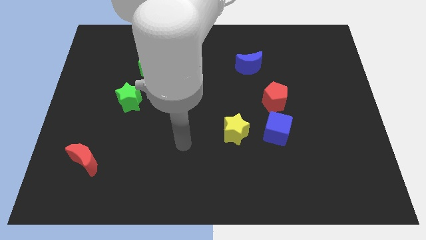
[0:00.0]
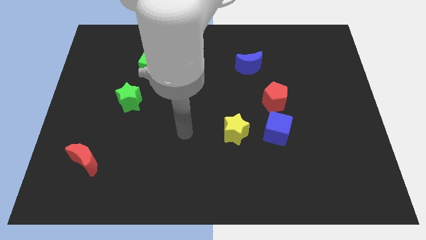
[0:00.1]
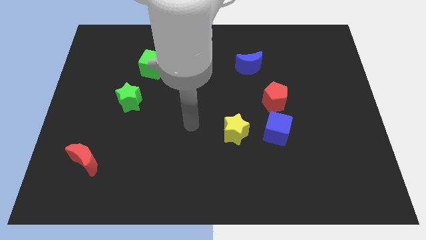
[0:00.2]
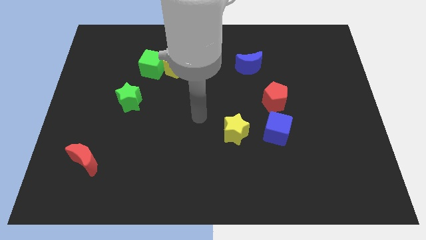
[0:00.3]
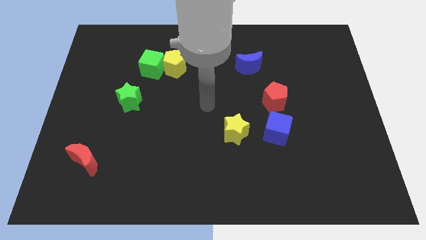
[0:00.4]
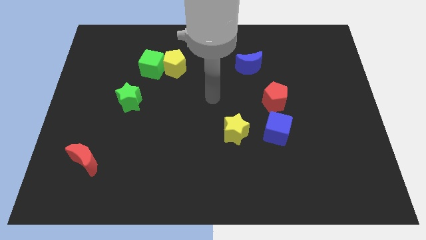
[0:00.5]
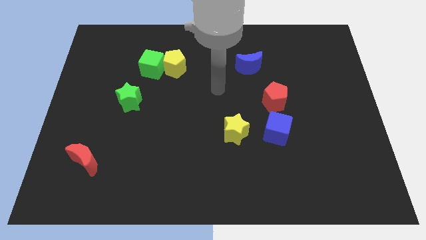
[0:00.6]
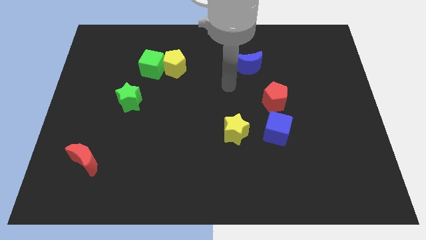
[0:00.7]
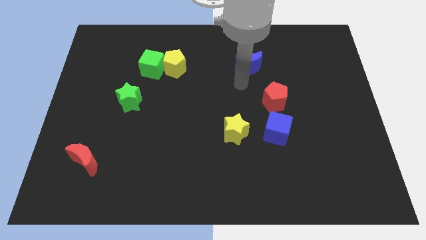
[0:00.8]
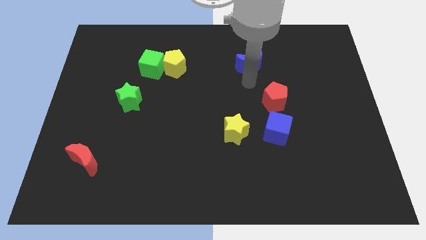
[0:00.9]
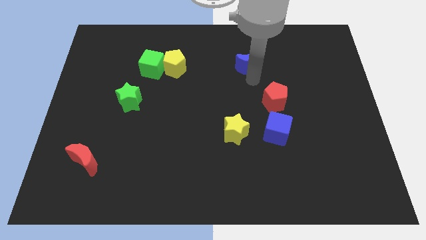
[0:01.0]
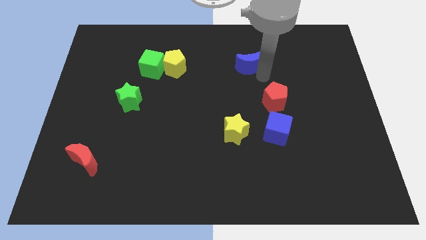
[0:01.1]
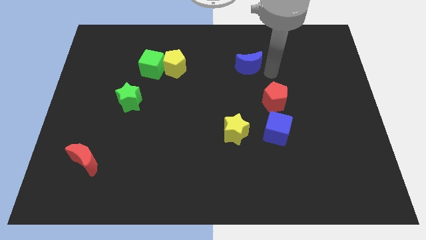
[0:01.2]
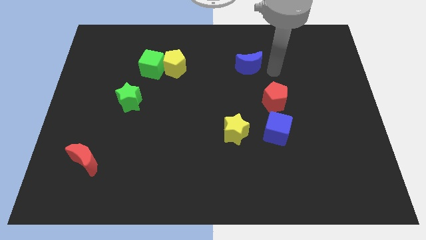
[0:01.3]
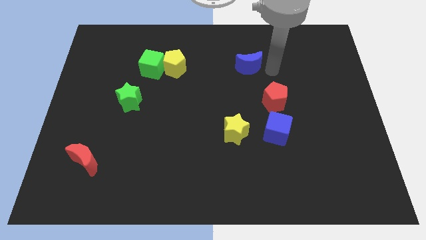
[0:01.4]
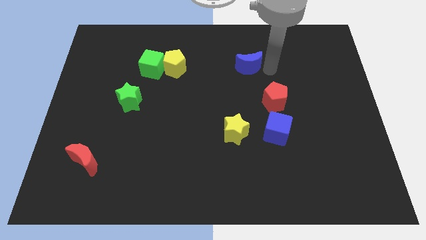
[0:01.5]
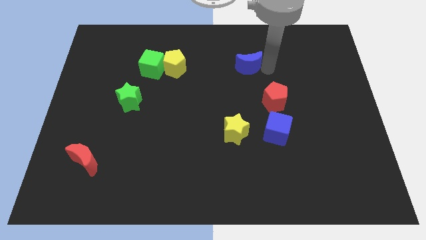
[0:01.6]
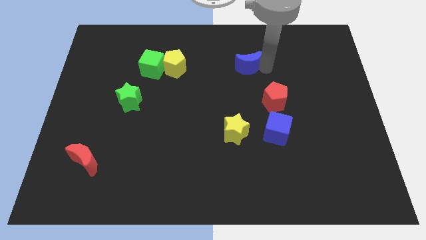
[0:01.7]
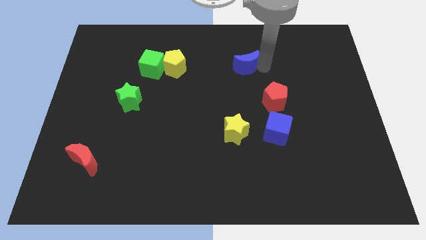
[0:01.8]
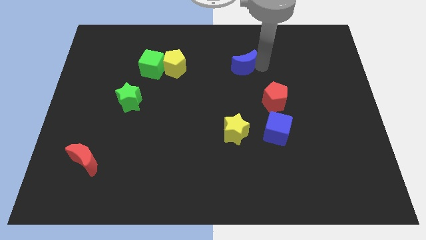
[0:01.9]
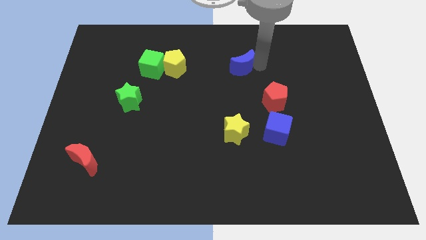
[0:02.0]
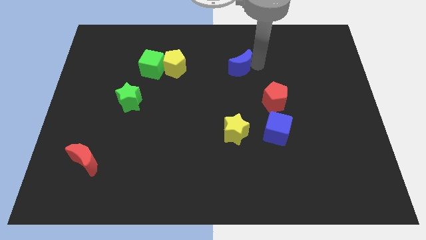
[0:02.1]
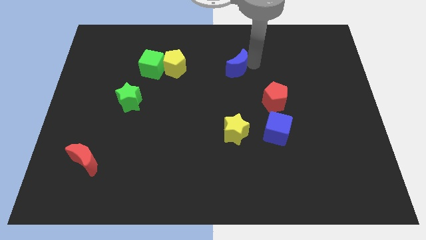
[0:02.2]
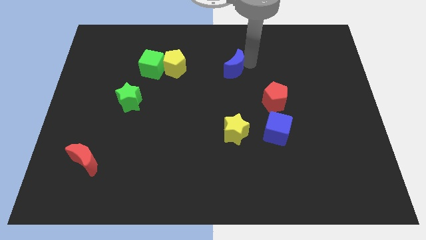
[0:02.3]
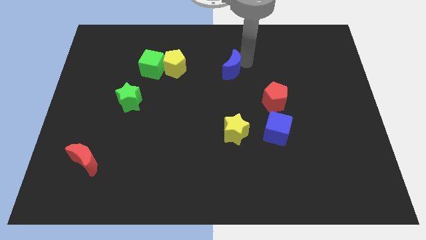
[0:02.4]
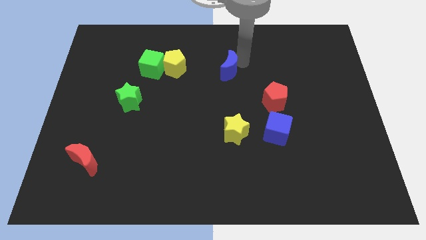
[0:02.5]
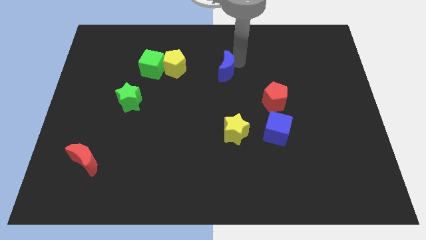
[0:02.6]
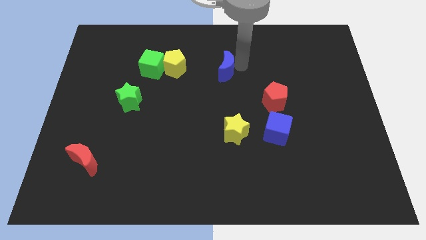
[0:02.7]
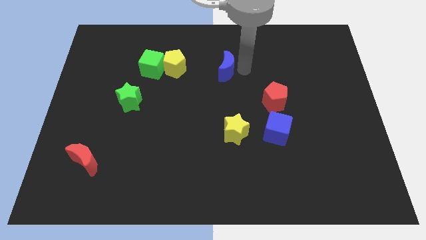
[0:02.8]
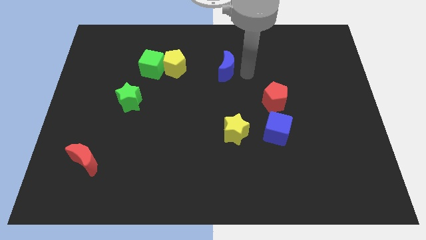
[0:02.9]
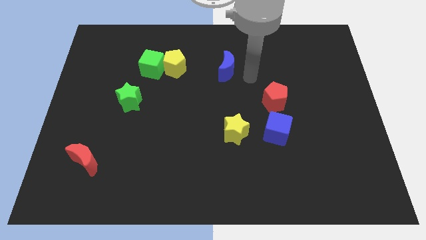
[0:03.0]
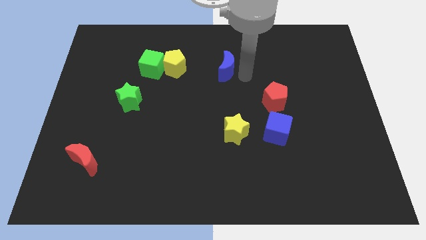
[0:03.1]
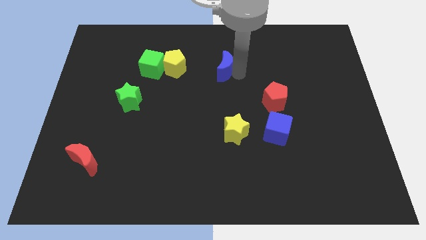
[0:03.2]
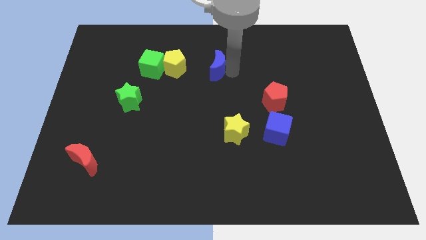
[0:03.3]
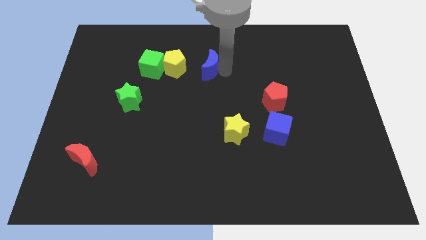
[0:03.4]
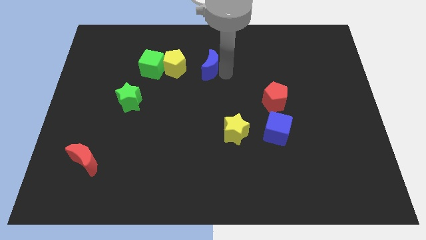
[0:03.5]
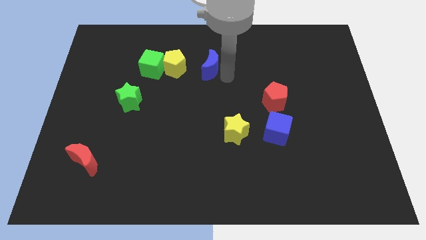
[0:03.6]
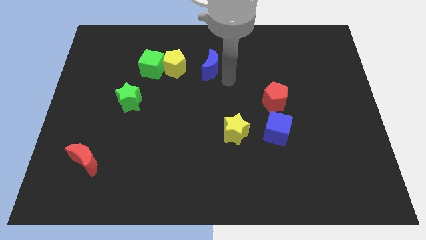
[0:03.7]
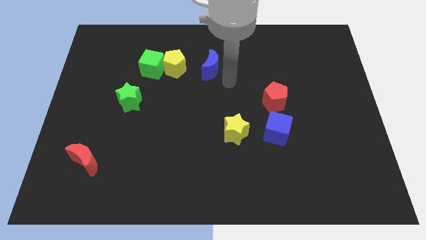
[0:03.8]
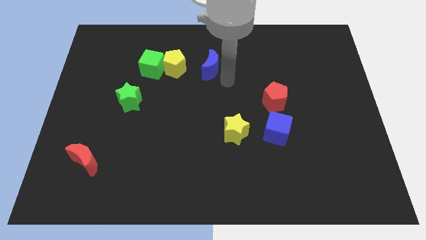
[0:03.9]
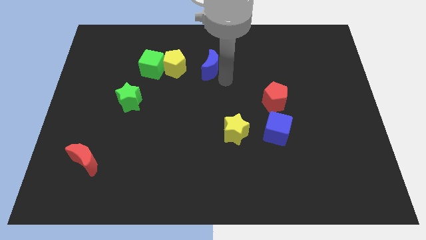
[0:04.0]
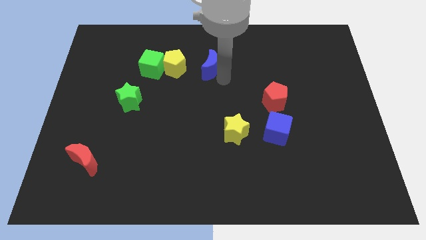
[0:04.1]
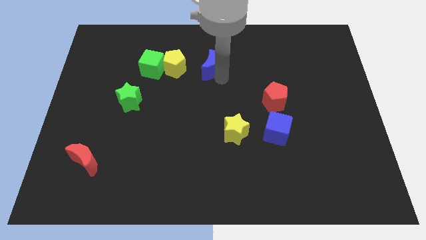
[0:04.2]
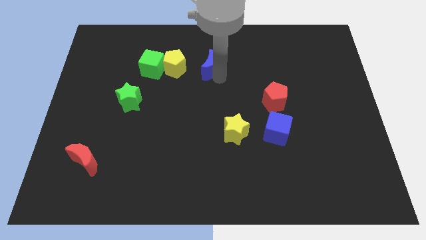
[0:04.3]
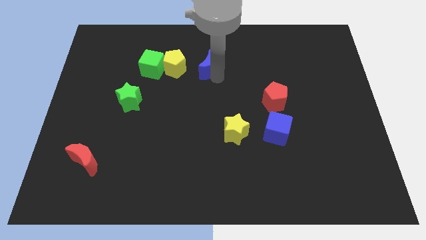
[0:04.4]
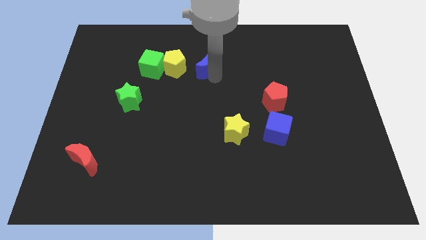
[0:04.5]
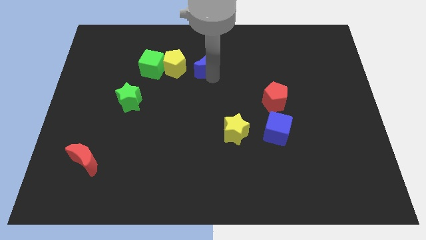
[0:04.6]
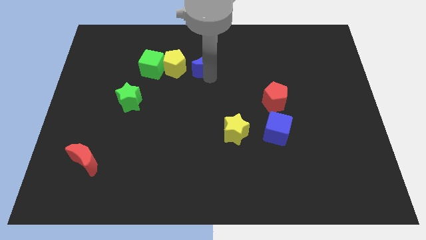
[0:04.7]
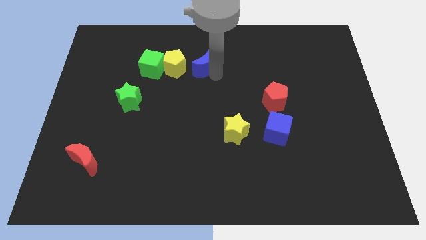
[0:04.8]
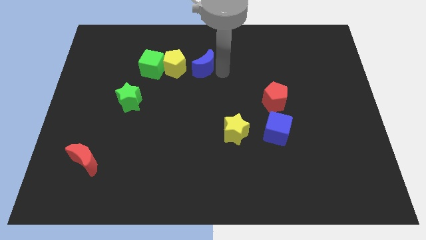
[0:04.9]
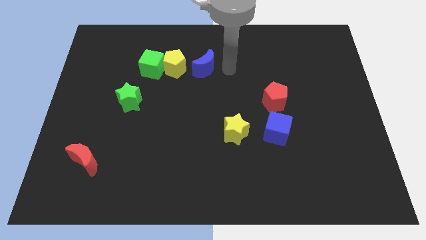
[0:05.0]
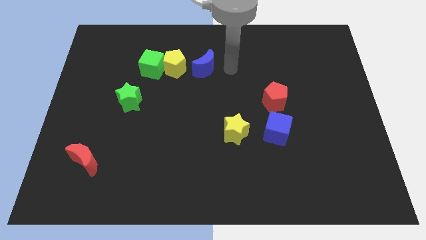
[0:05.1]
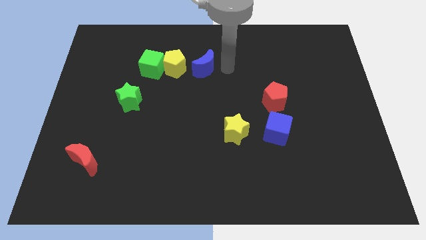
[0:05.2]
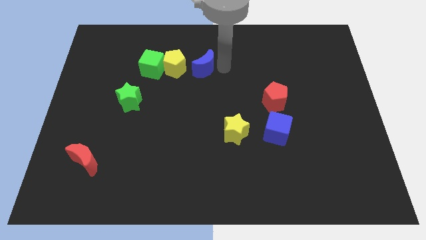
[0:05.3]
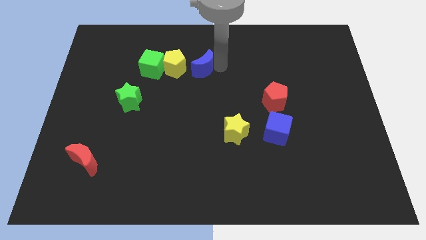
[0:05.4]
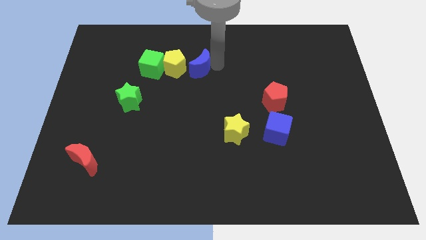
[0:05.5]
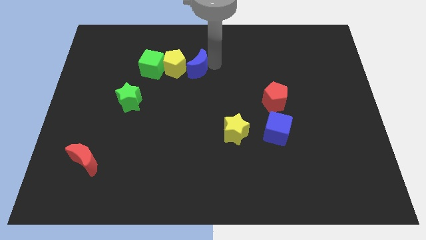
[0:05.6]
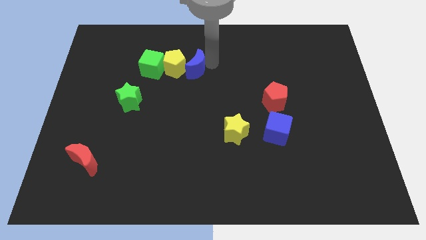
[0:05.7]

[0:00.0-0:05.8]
put the blue moon close to the yellow pentagon

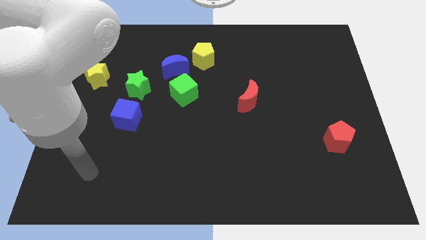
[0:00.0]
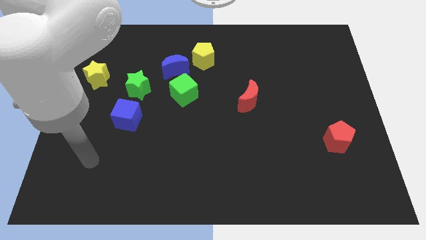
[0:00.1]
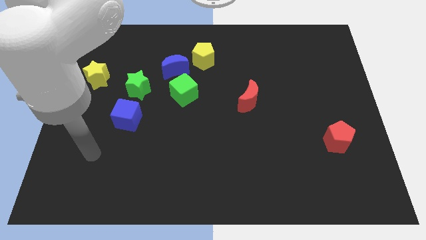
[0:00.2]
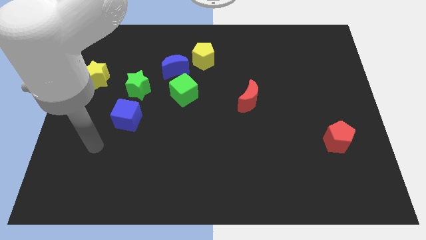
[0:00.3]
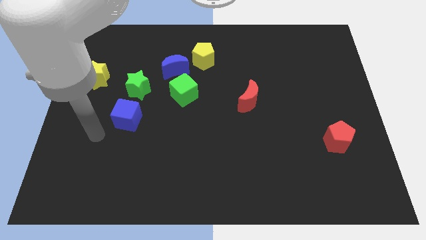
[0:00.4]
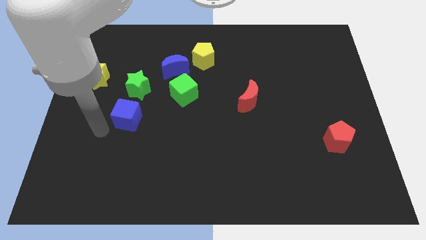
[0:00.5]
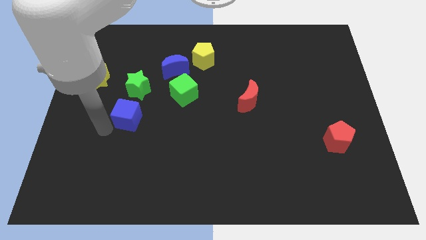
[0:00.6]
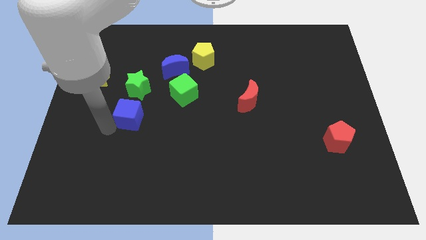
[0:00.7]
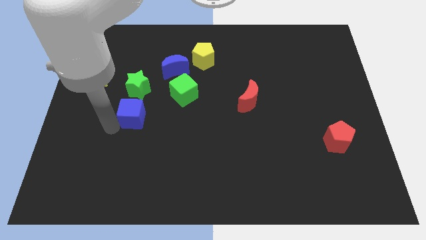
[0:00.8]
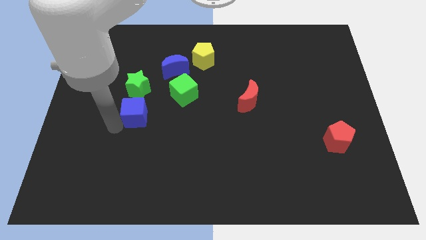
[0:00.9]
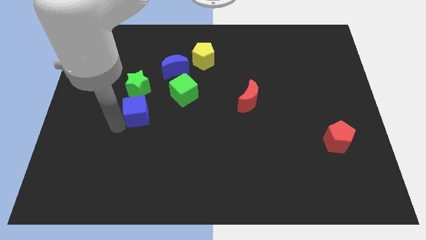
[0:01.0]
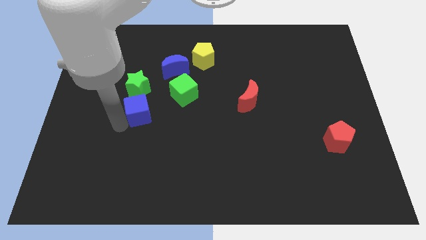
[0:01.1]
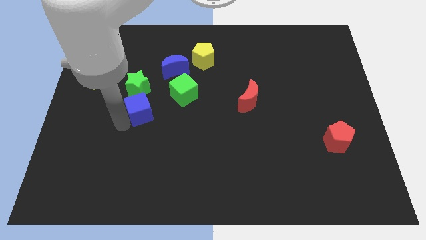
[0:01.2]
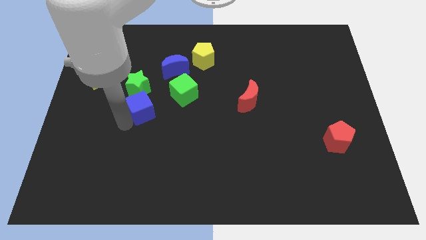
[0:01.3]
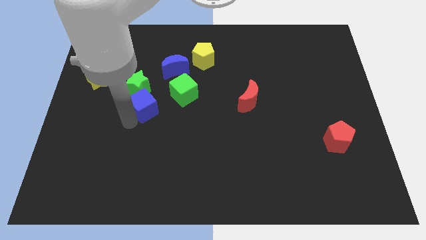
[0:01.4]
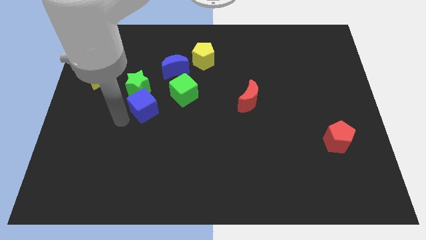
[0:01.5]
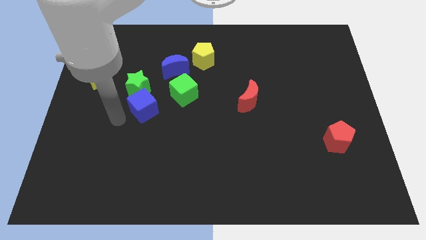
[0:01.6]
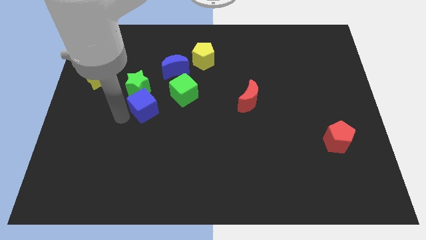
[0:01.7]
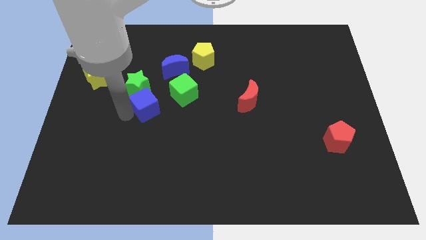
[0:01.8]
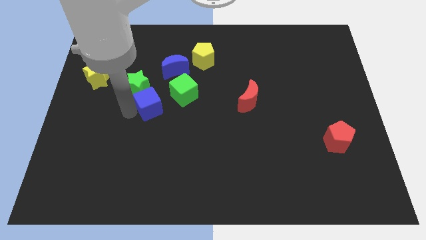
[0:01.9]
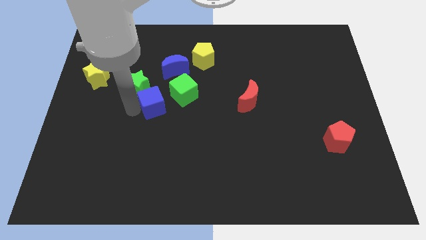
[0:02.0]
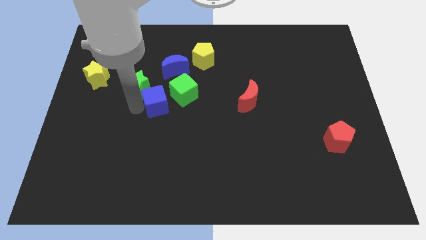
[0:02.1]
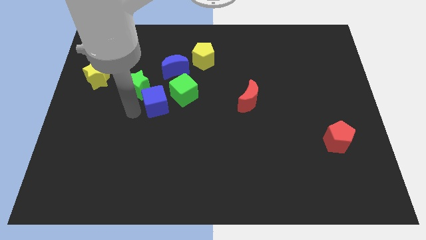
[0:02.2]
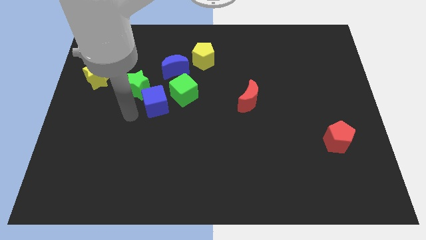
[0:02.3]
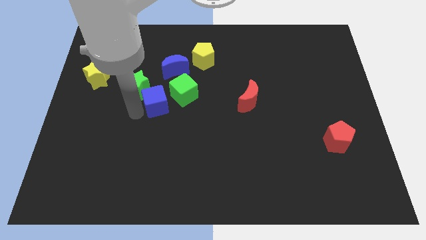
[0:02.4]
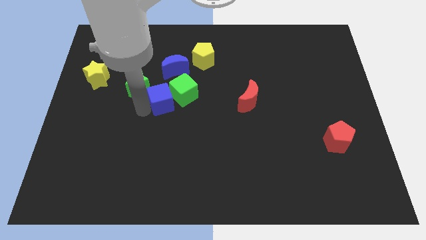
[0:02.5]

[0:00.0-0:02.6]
slide the blue cube to the green cube
